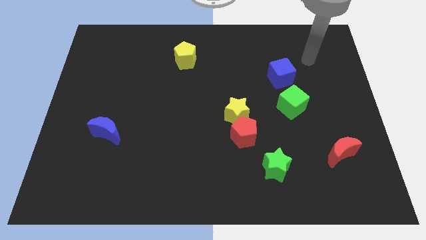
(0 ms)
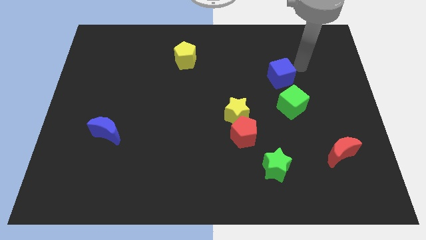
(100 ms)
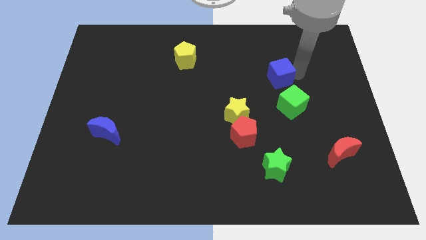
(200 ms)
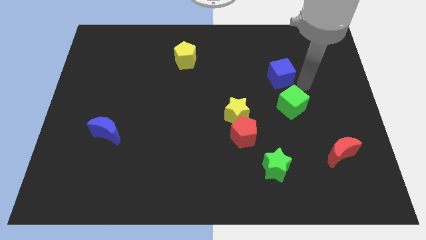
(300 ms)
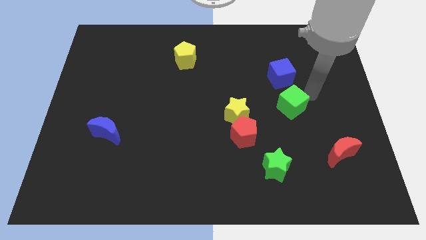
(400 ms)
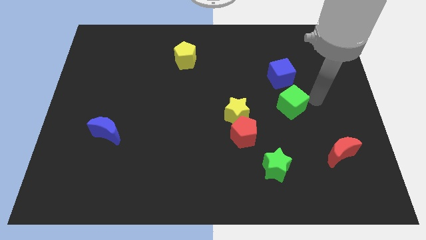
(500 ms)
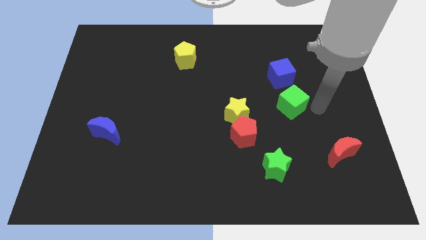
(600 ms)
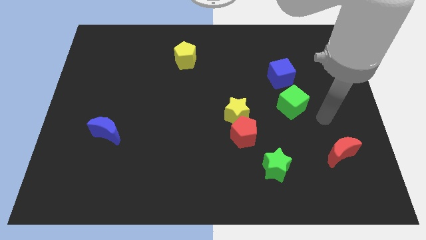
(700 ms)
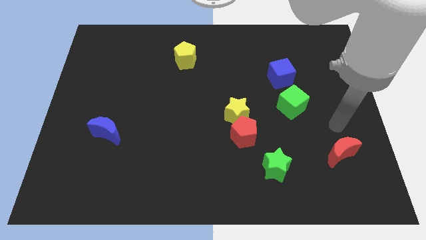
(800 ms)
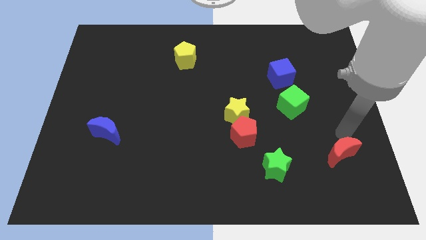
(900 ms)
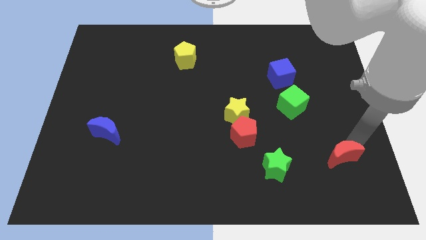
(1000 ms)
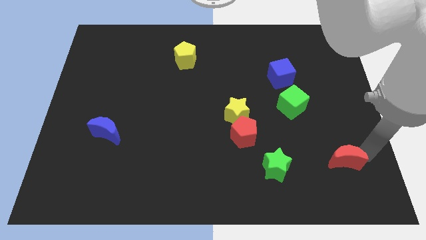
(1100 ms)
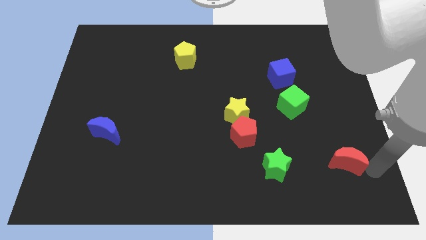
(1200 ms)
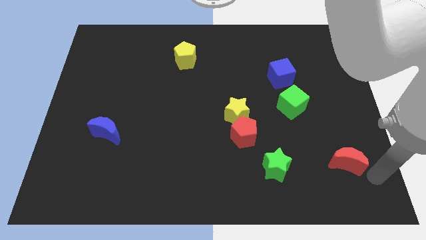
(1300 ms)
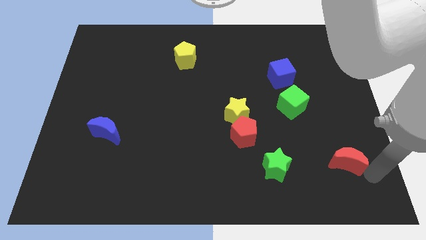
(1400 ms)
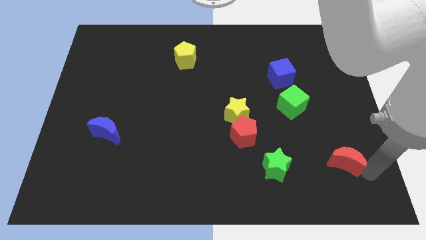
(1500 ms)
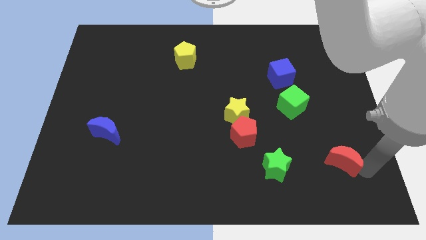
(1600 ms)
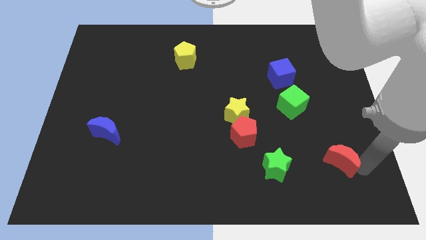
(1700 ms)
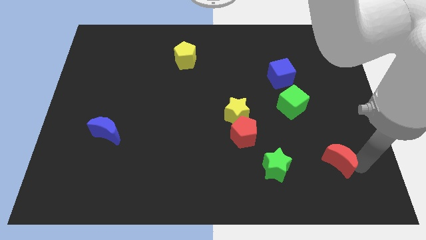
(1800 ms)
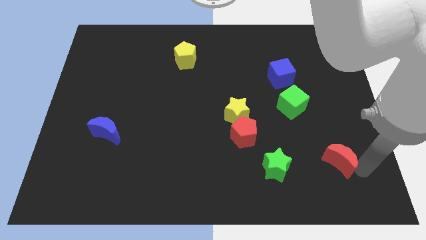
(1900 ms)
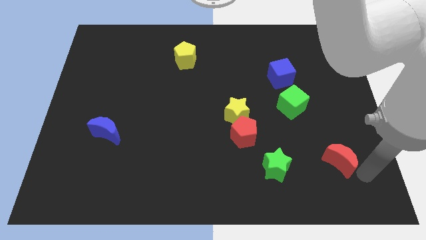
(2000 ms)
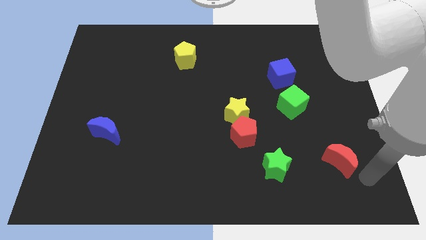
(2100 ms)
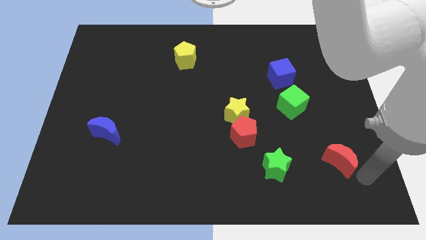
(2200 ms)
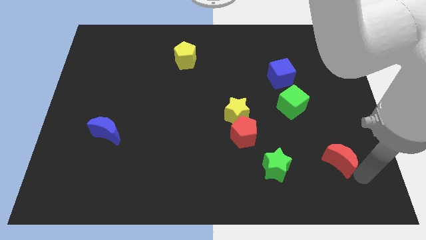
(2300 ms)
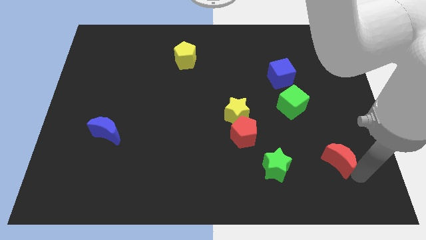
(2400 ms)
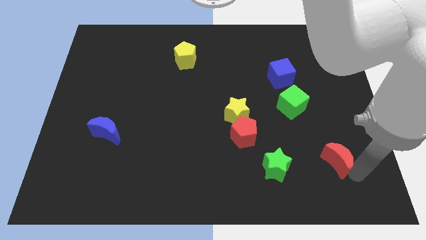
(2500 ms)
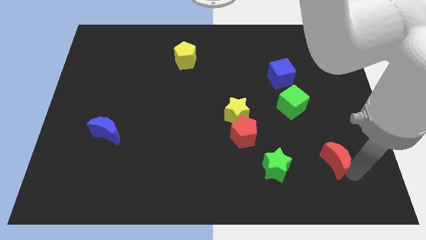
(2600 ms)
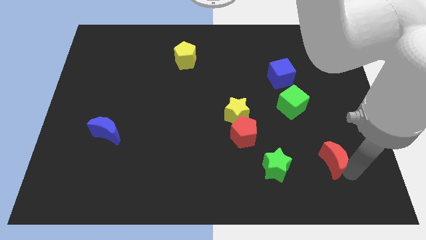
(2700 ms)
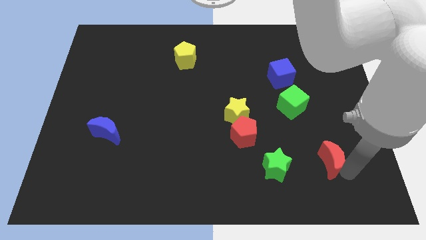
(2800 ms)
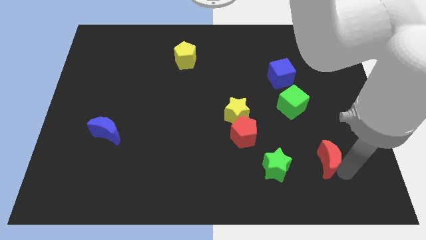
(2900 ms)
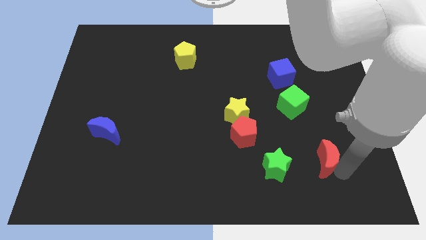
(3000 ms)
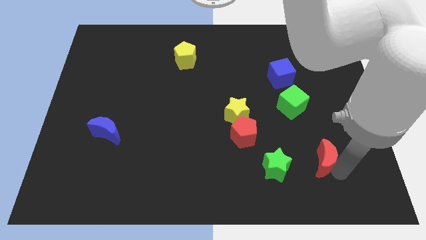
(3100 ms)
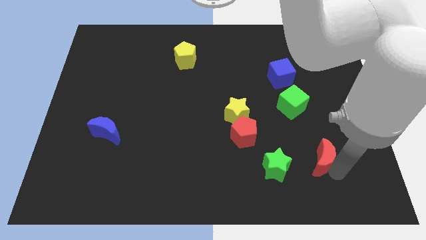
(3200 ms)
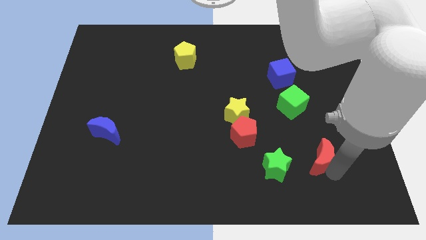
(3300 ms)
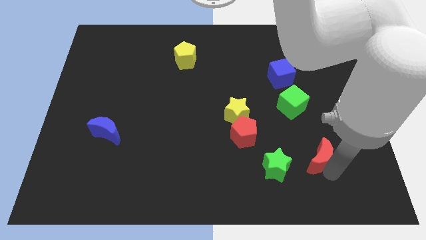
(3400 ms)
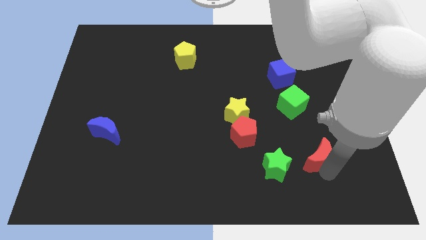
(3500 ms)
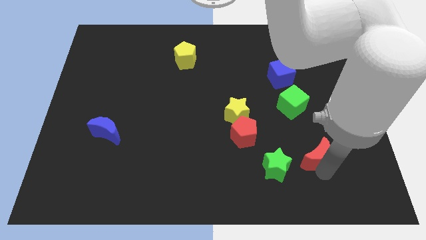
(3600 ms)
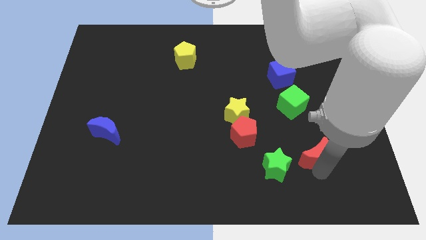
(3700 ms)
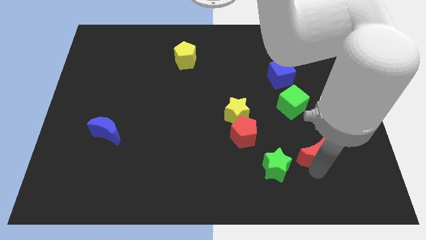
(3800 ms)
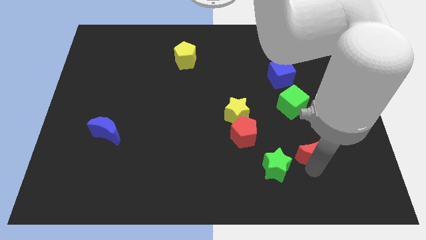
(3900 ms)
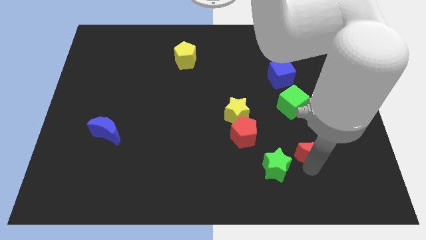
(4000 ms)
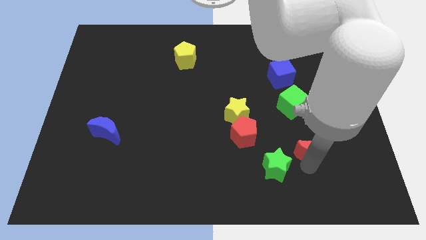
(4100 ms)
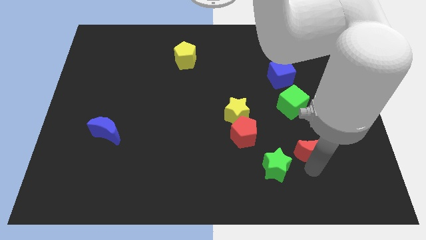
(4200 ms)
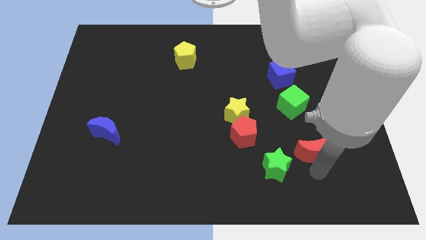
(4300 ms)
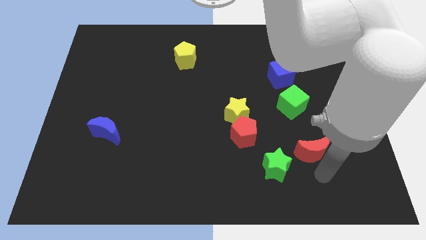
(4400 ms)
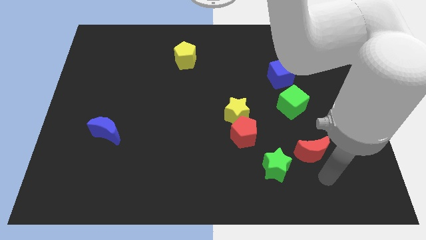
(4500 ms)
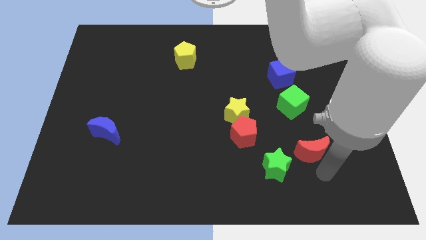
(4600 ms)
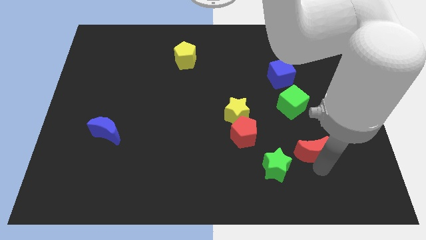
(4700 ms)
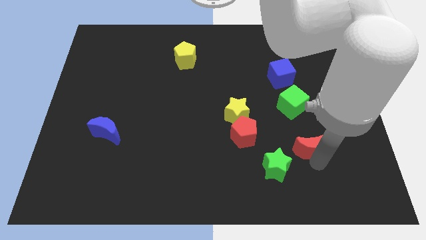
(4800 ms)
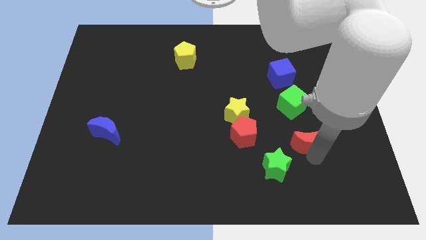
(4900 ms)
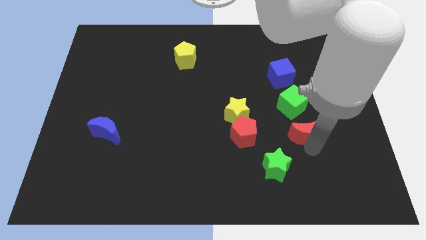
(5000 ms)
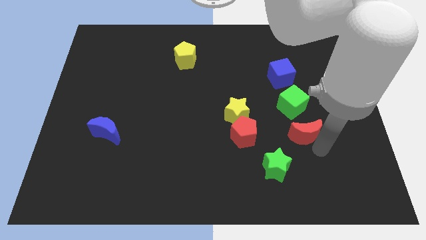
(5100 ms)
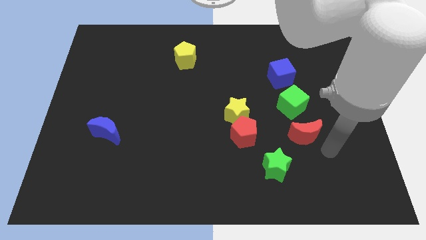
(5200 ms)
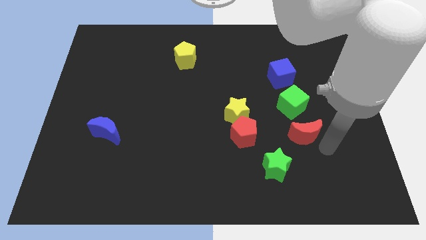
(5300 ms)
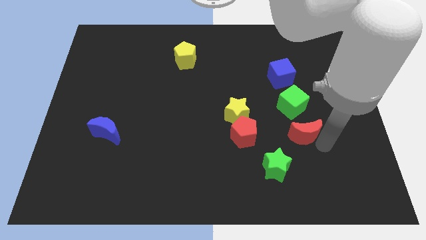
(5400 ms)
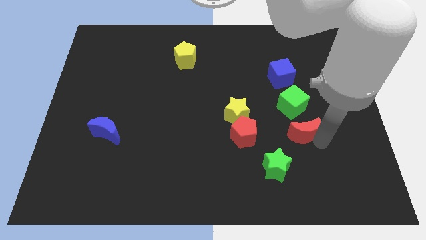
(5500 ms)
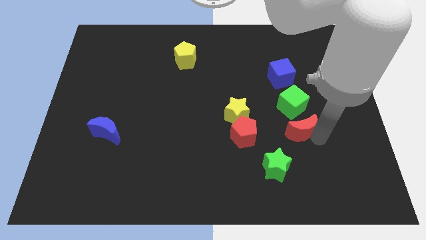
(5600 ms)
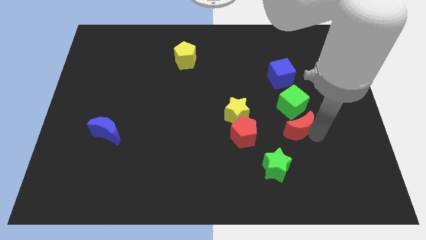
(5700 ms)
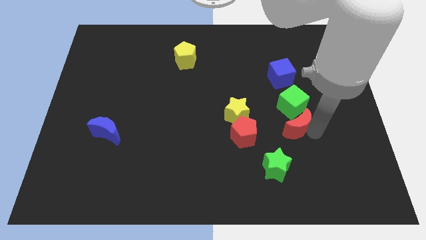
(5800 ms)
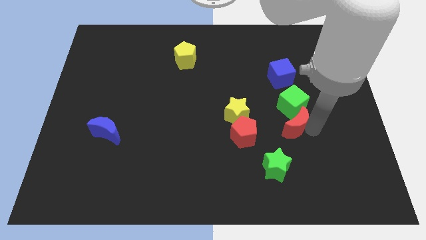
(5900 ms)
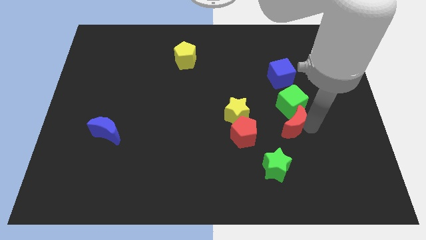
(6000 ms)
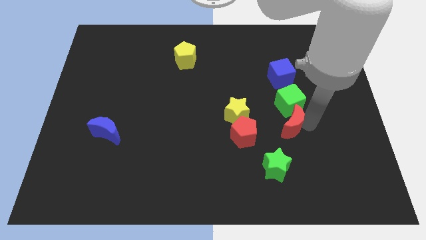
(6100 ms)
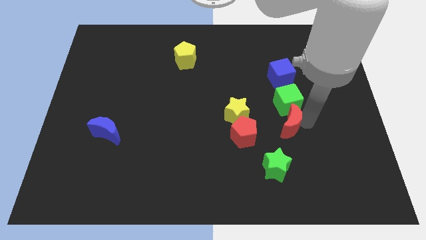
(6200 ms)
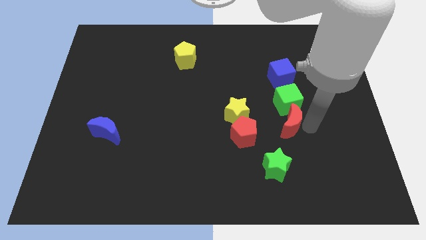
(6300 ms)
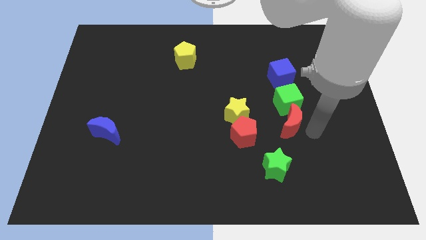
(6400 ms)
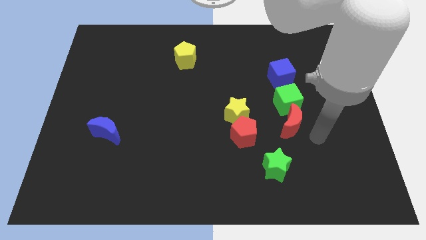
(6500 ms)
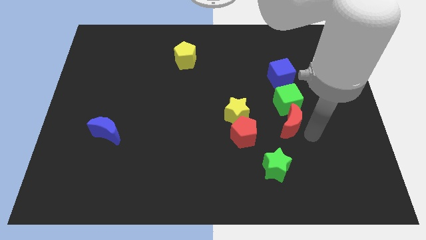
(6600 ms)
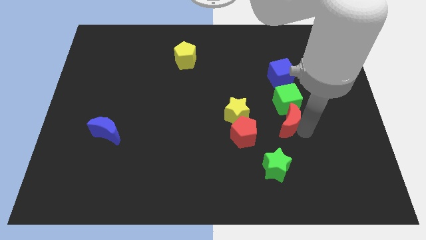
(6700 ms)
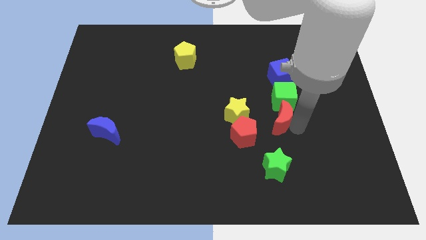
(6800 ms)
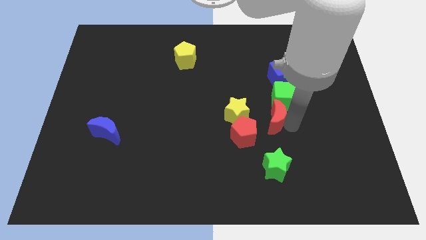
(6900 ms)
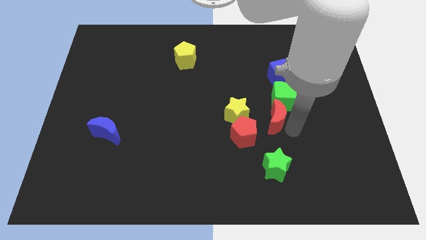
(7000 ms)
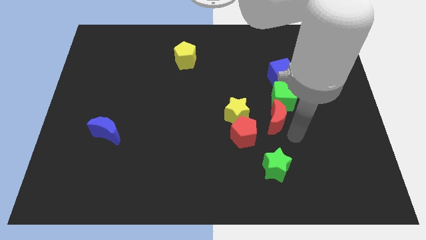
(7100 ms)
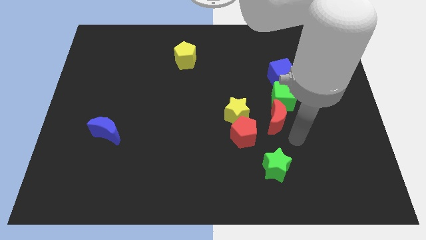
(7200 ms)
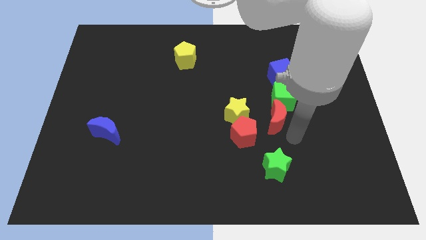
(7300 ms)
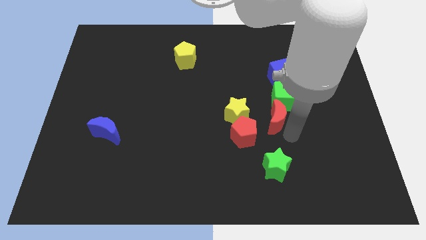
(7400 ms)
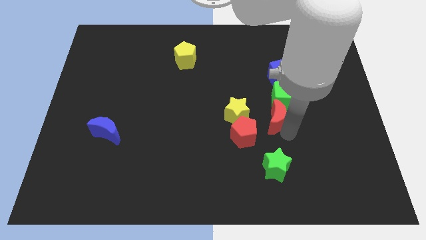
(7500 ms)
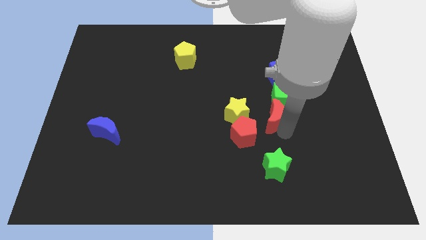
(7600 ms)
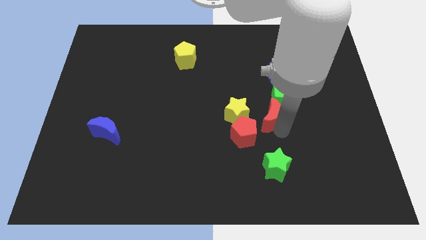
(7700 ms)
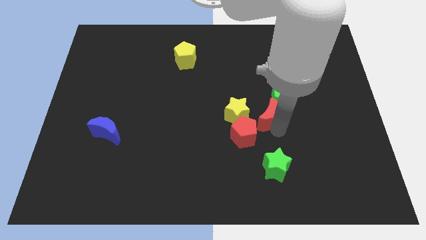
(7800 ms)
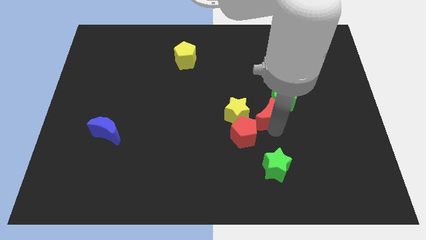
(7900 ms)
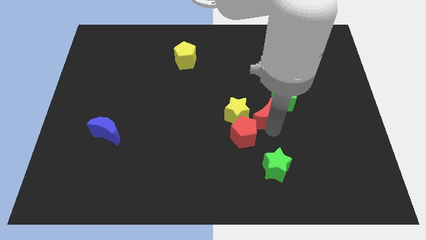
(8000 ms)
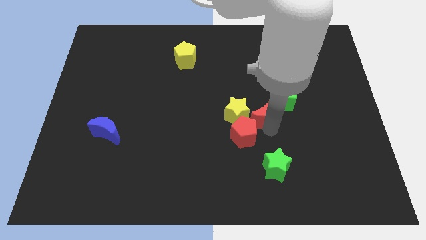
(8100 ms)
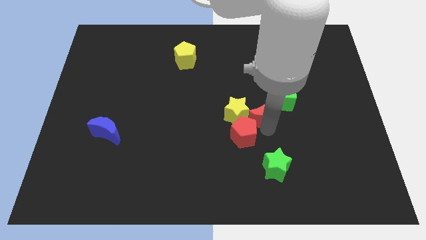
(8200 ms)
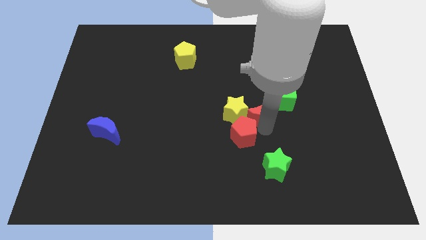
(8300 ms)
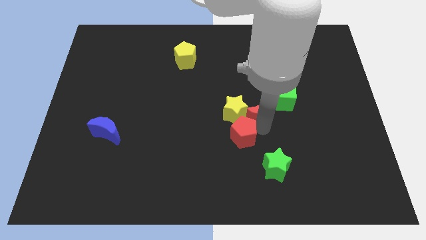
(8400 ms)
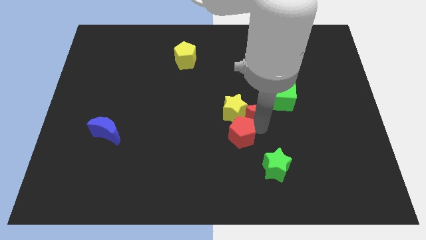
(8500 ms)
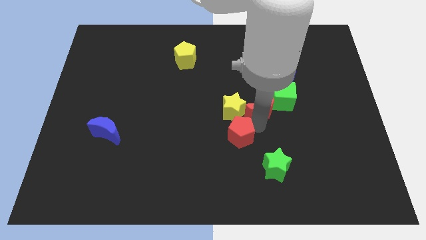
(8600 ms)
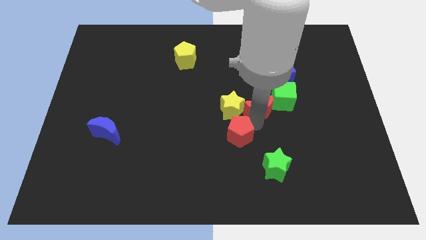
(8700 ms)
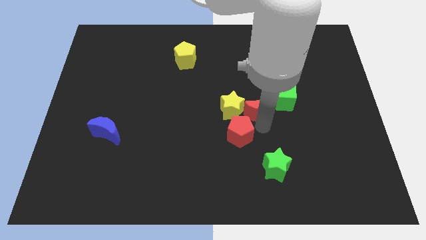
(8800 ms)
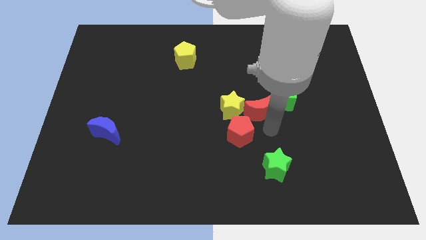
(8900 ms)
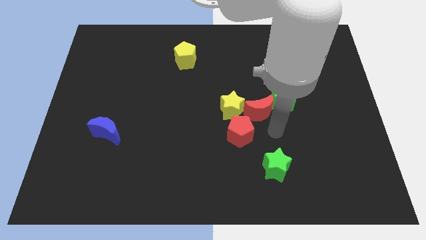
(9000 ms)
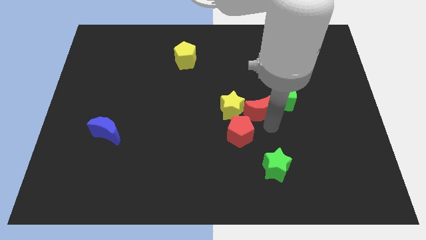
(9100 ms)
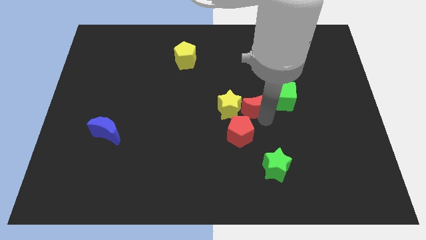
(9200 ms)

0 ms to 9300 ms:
move the red moon up and left diagonally
